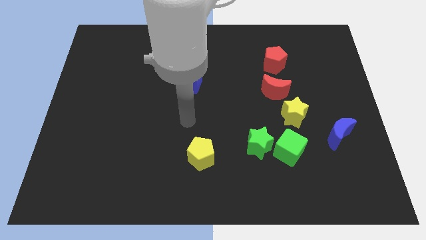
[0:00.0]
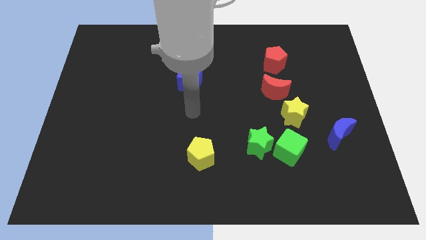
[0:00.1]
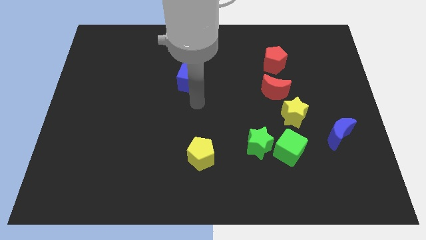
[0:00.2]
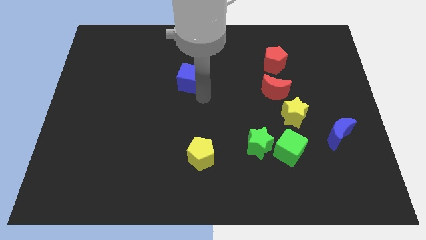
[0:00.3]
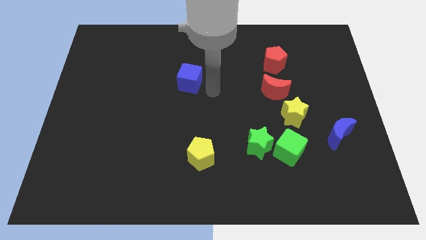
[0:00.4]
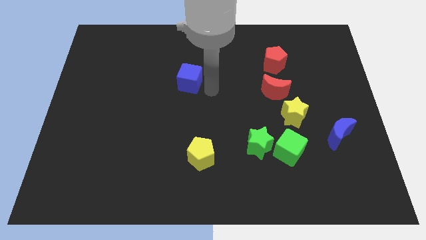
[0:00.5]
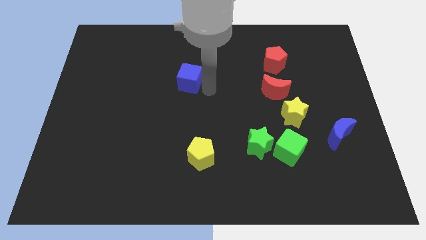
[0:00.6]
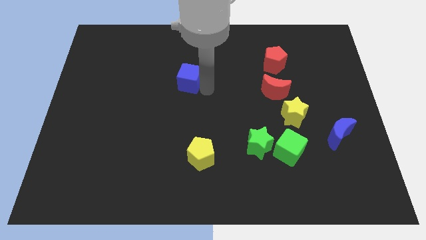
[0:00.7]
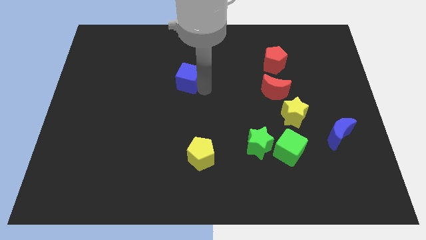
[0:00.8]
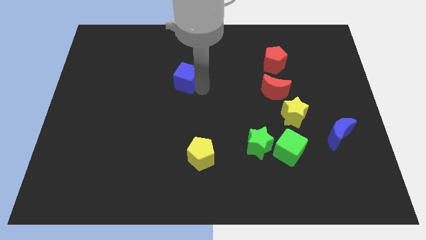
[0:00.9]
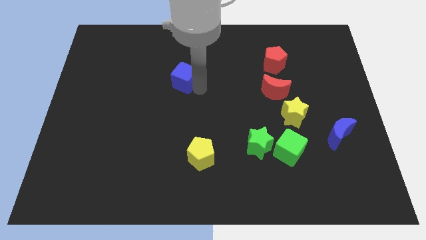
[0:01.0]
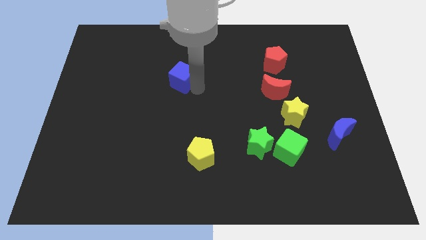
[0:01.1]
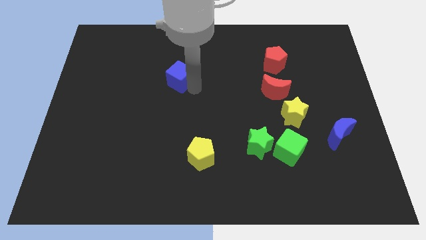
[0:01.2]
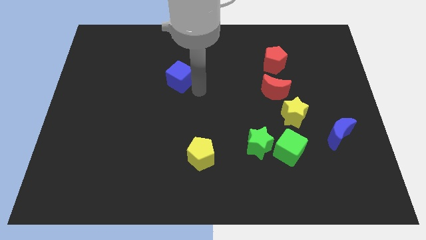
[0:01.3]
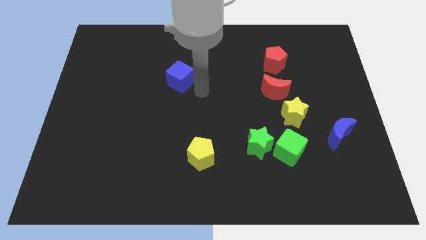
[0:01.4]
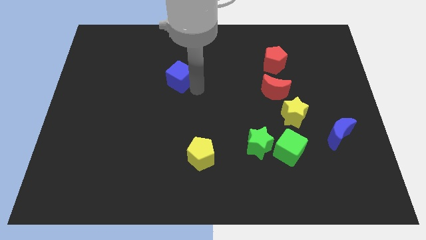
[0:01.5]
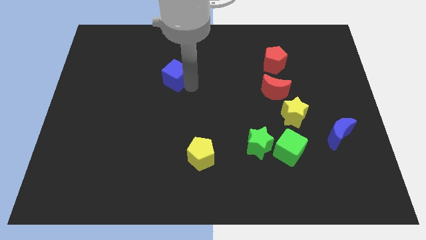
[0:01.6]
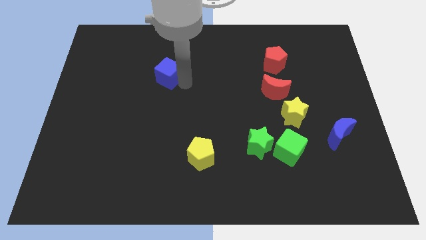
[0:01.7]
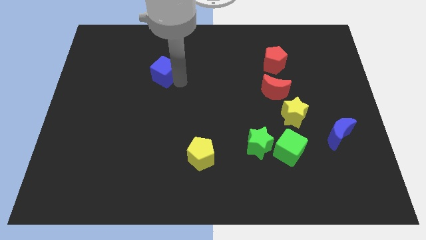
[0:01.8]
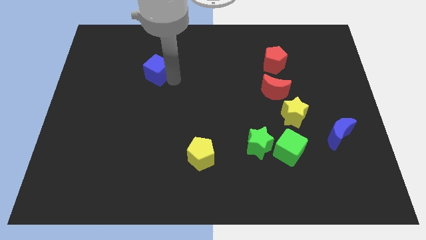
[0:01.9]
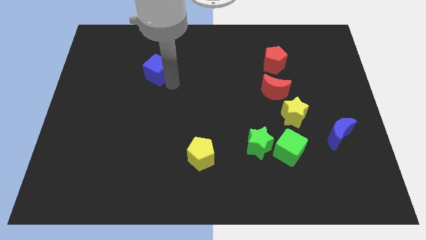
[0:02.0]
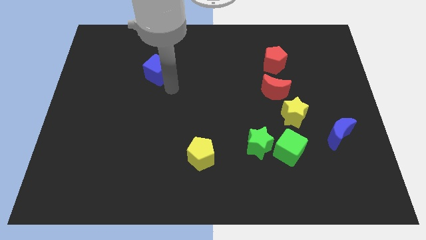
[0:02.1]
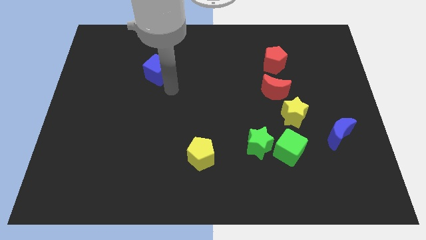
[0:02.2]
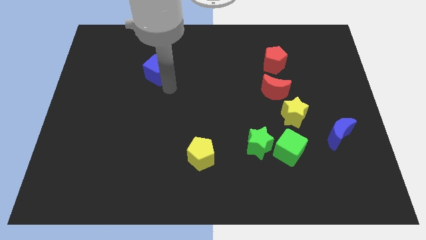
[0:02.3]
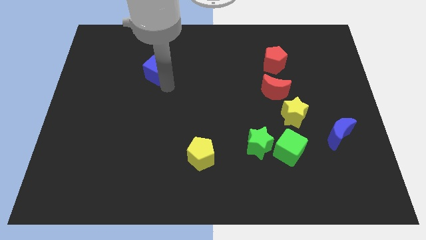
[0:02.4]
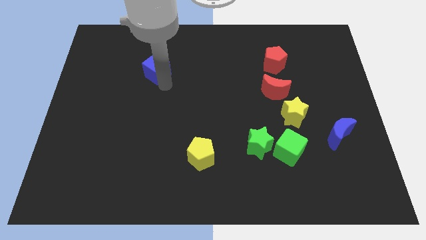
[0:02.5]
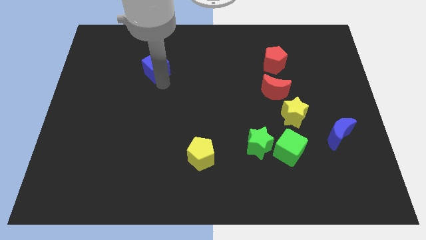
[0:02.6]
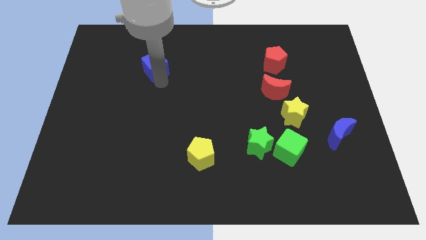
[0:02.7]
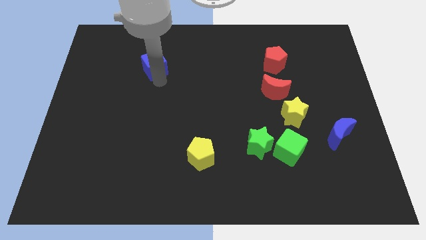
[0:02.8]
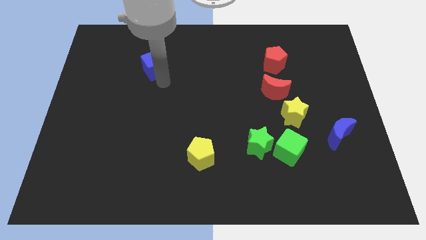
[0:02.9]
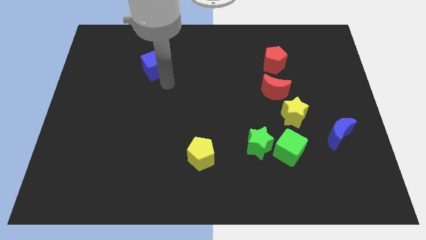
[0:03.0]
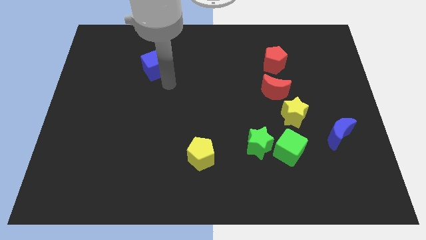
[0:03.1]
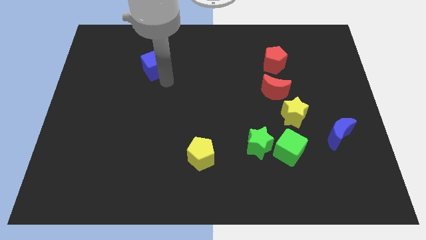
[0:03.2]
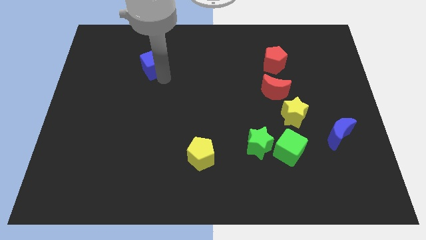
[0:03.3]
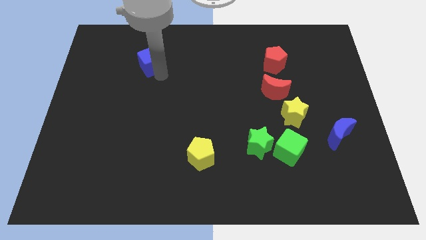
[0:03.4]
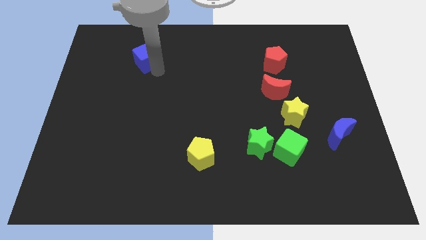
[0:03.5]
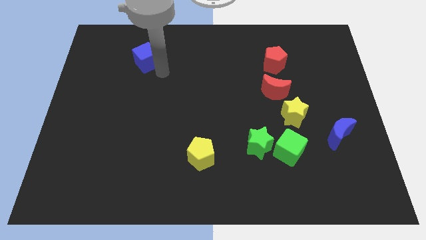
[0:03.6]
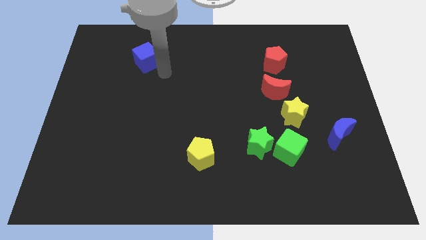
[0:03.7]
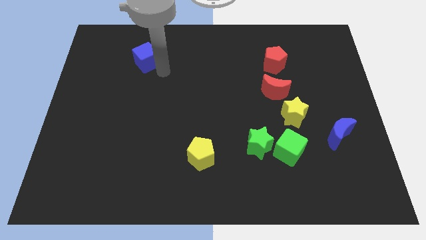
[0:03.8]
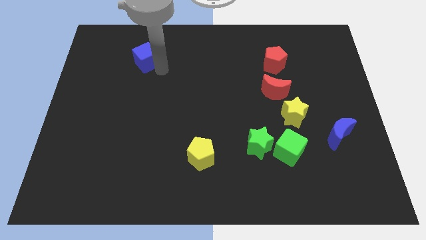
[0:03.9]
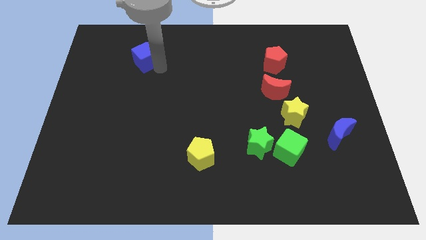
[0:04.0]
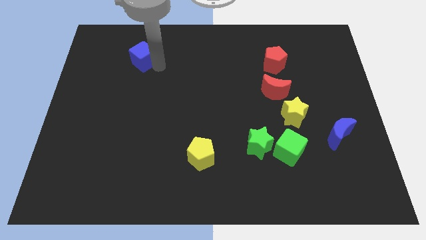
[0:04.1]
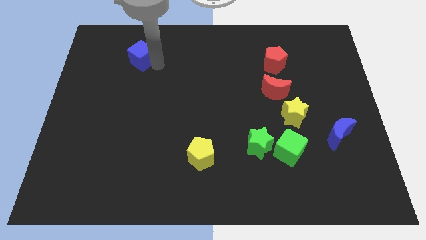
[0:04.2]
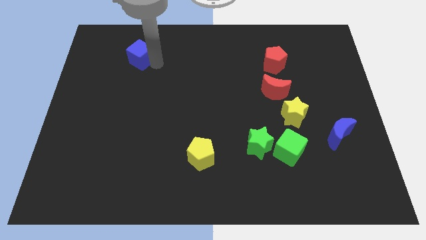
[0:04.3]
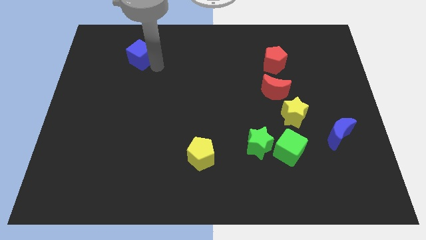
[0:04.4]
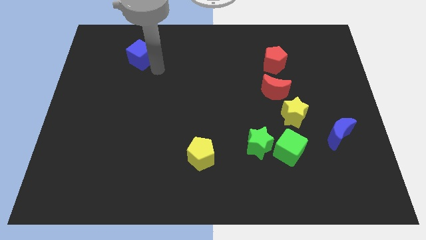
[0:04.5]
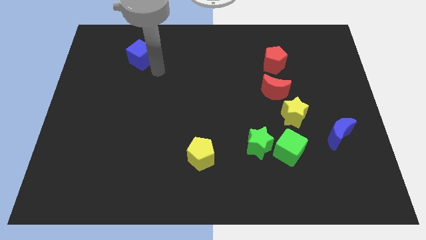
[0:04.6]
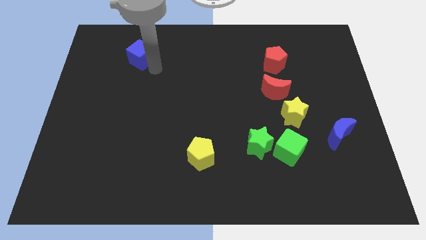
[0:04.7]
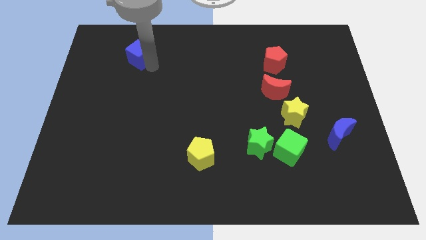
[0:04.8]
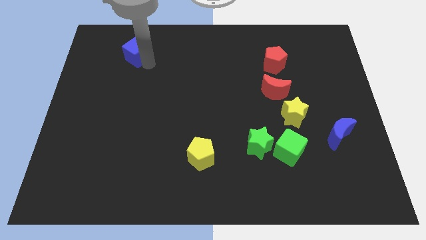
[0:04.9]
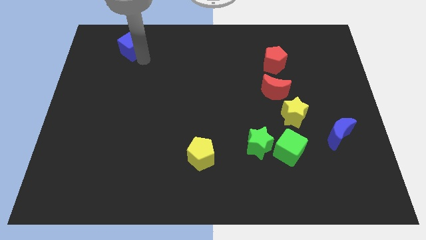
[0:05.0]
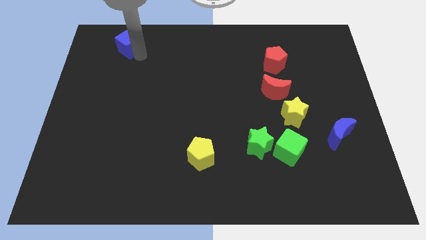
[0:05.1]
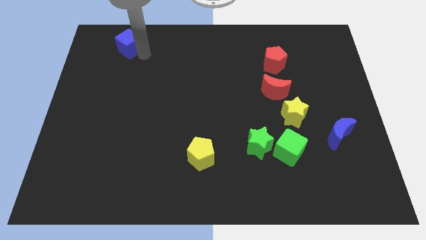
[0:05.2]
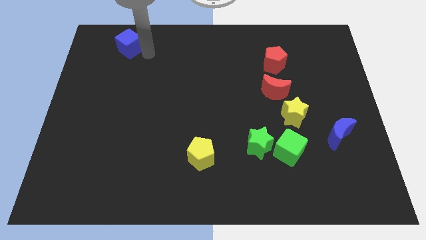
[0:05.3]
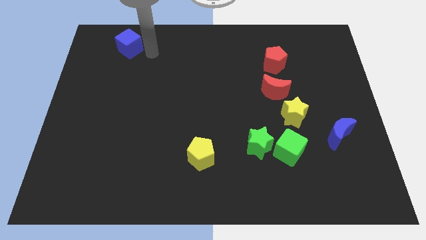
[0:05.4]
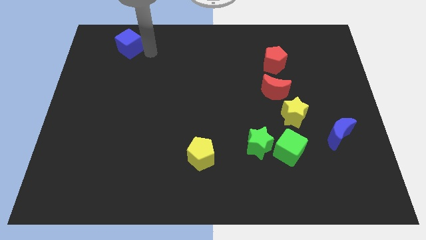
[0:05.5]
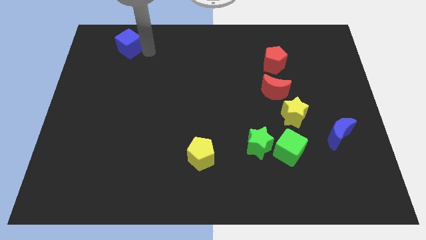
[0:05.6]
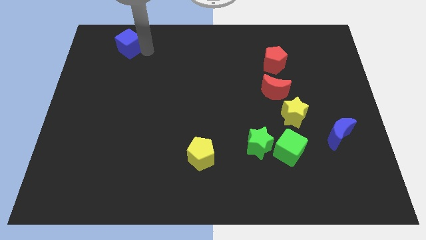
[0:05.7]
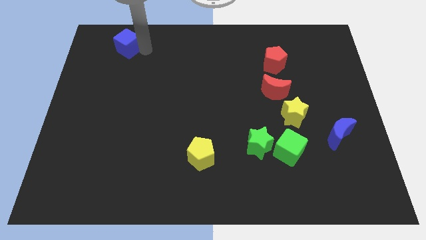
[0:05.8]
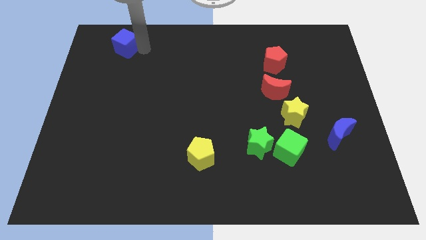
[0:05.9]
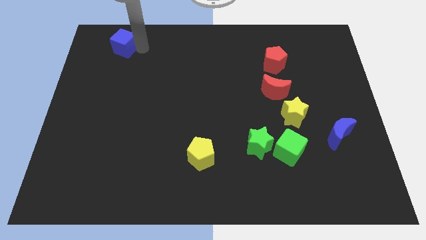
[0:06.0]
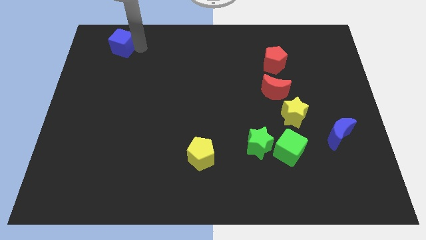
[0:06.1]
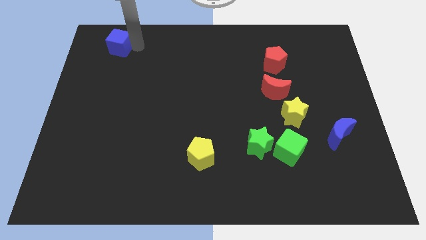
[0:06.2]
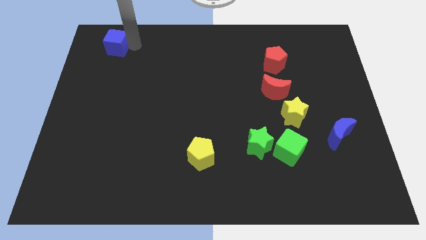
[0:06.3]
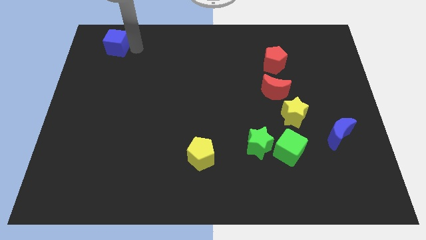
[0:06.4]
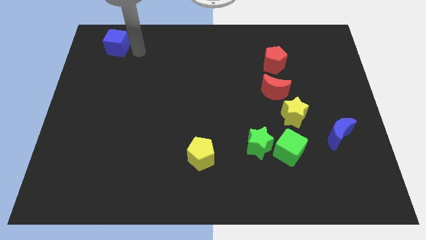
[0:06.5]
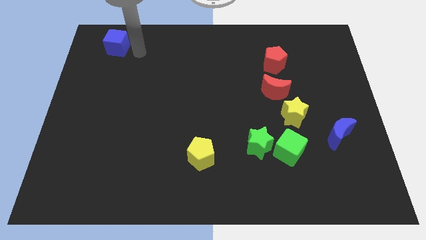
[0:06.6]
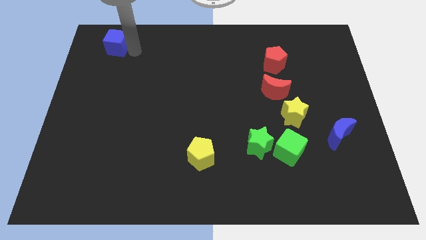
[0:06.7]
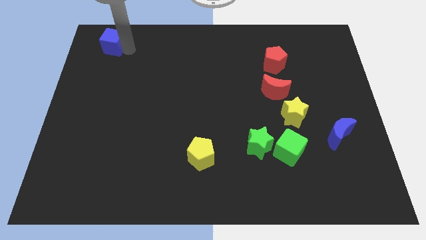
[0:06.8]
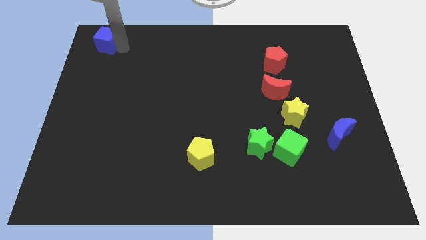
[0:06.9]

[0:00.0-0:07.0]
slide the blue cube to the top left of the board
